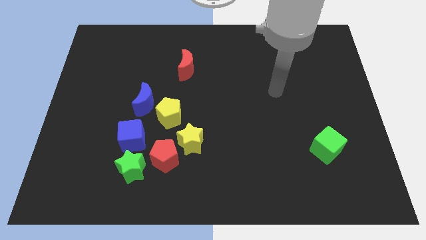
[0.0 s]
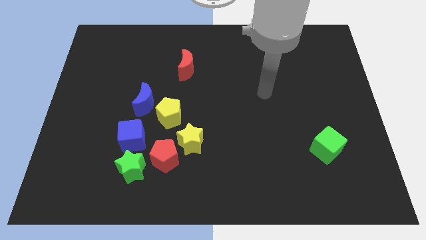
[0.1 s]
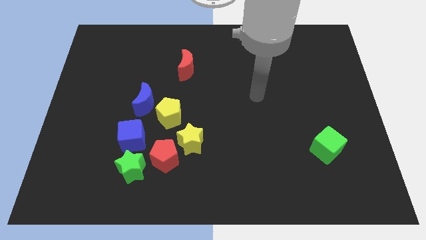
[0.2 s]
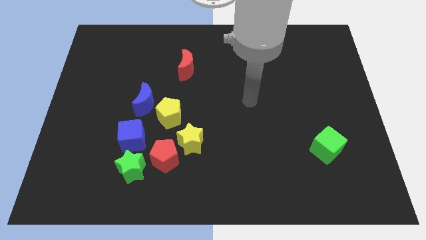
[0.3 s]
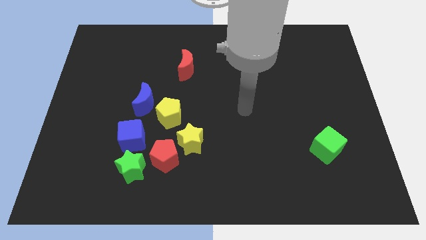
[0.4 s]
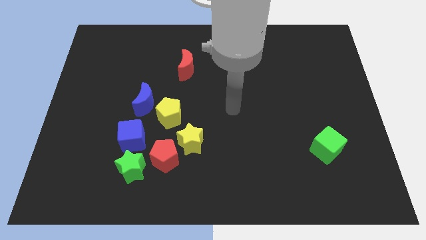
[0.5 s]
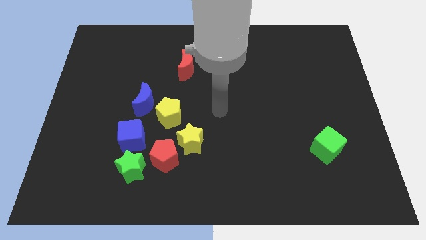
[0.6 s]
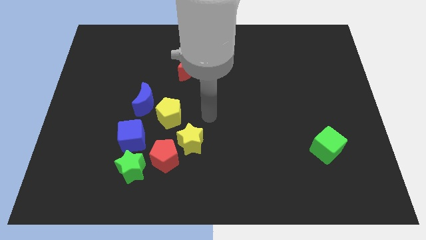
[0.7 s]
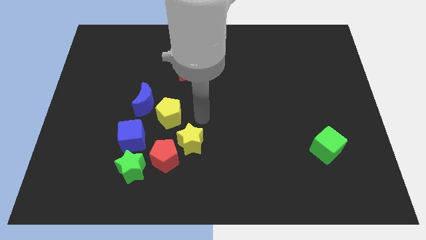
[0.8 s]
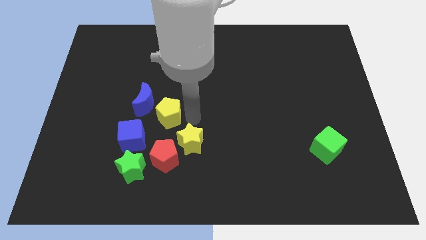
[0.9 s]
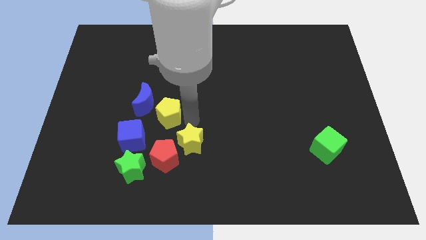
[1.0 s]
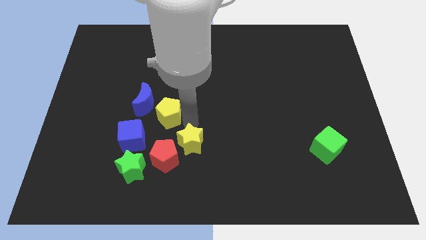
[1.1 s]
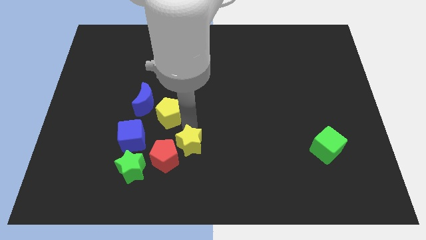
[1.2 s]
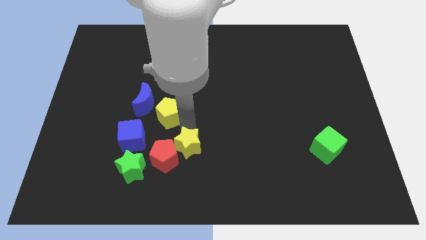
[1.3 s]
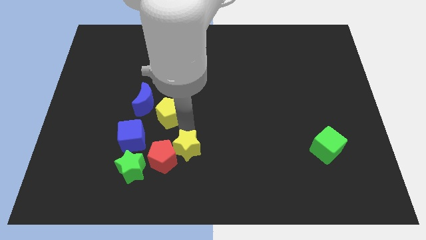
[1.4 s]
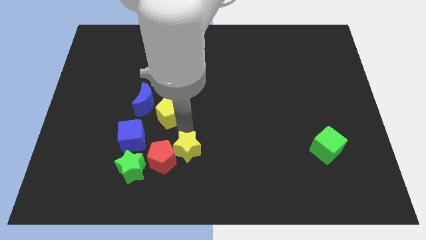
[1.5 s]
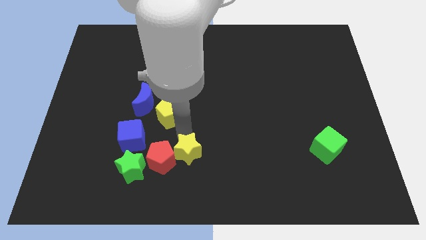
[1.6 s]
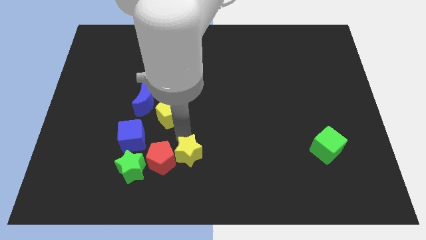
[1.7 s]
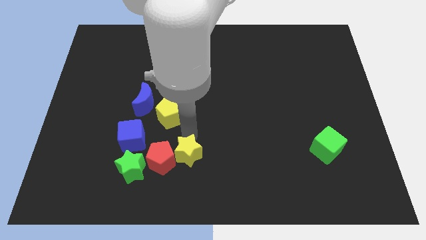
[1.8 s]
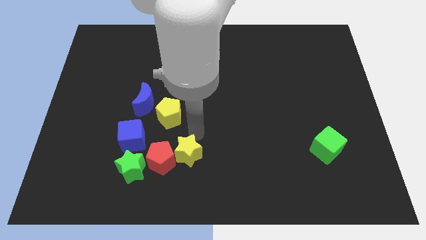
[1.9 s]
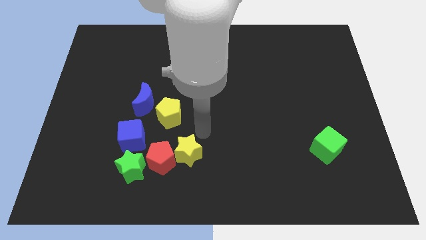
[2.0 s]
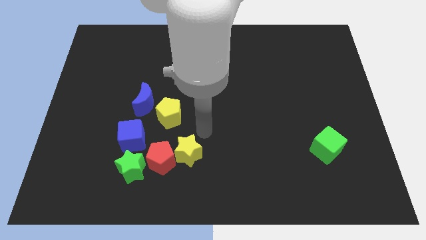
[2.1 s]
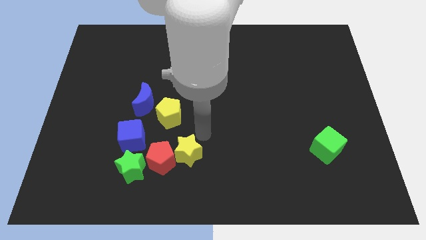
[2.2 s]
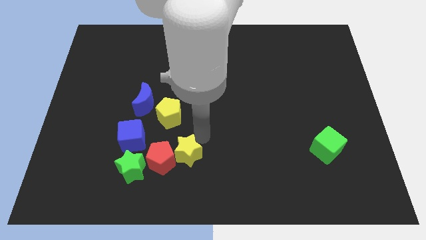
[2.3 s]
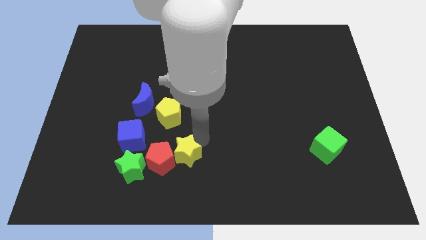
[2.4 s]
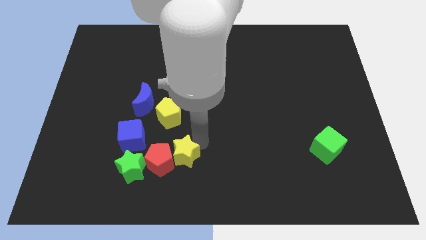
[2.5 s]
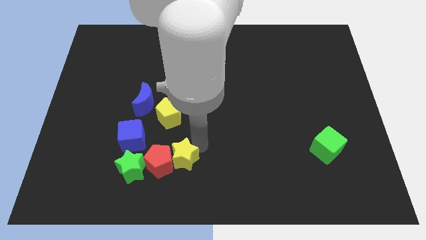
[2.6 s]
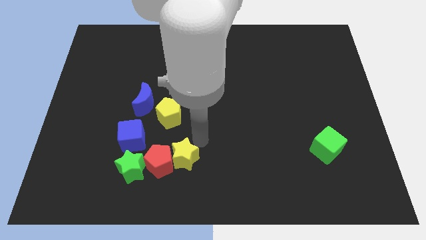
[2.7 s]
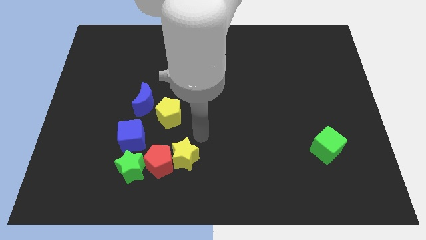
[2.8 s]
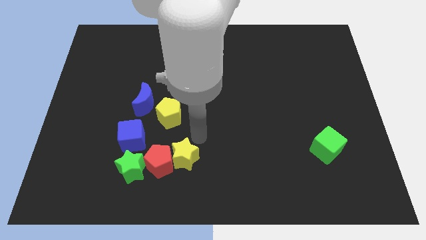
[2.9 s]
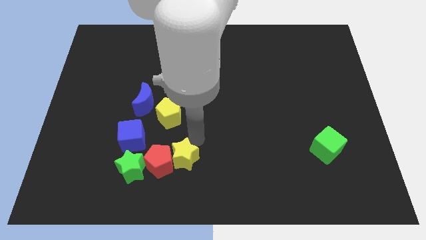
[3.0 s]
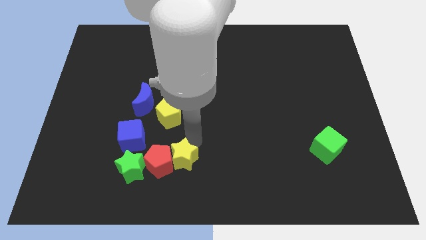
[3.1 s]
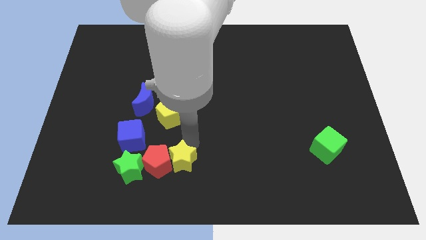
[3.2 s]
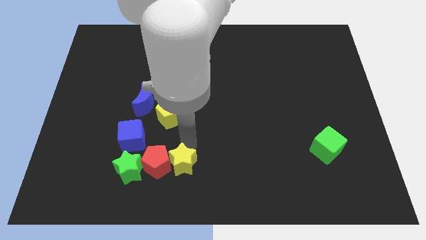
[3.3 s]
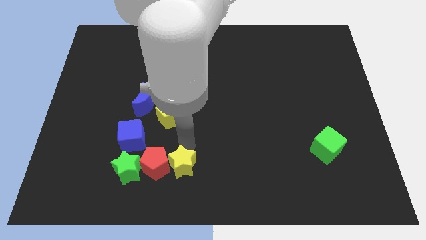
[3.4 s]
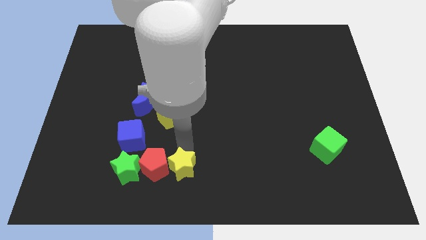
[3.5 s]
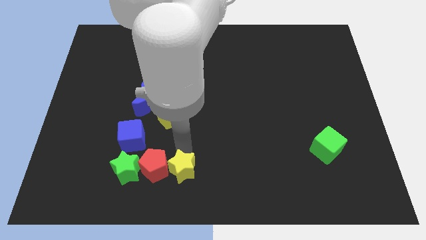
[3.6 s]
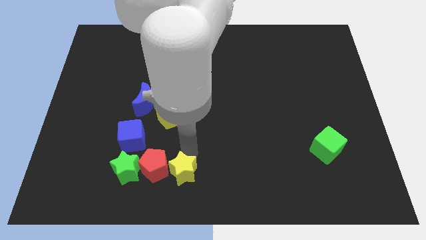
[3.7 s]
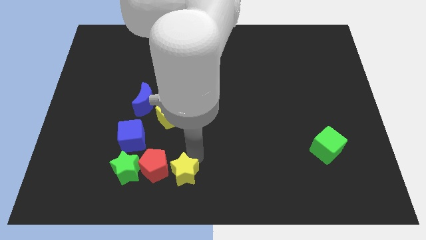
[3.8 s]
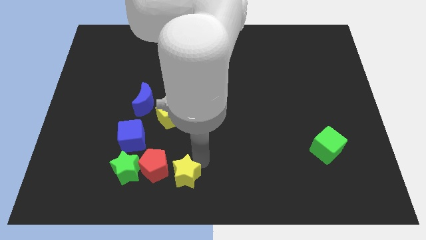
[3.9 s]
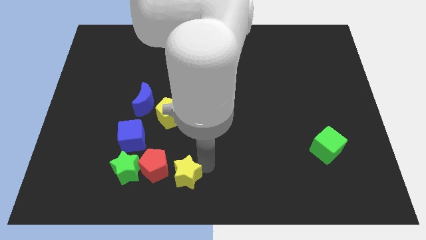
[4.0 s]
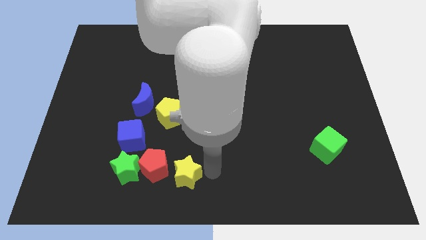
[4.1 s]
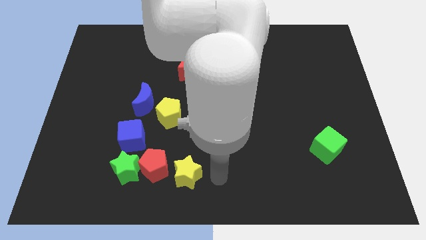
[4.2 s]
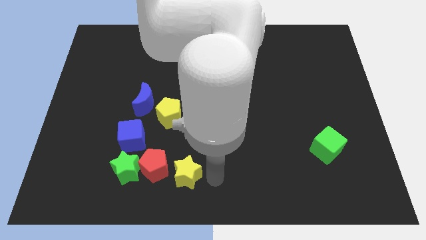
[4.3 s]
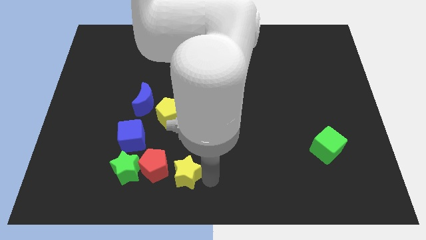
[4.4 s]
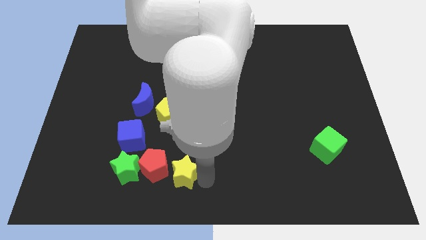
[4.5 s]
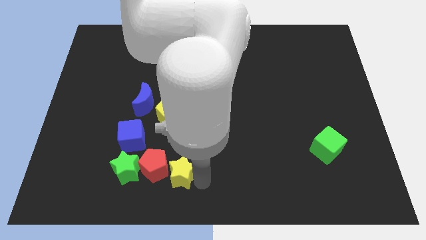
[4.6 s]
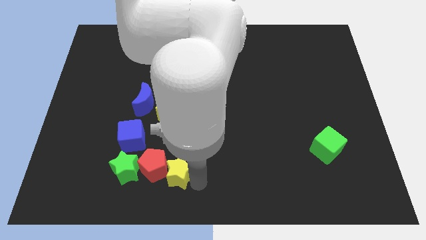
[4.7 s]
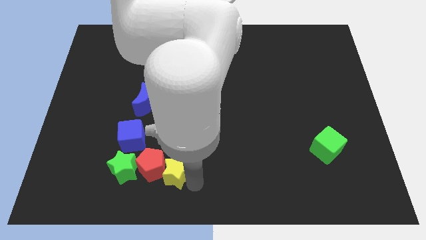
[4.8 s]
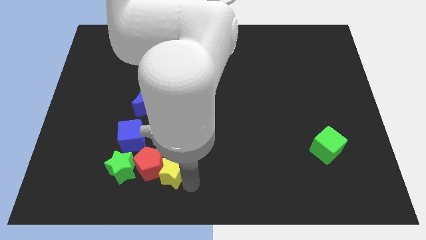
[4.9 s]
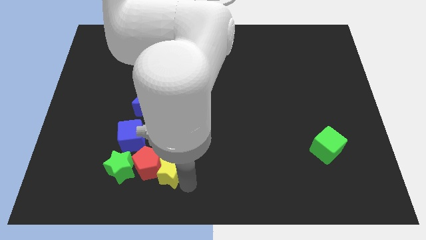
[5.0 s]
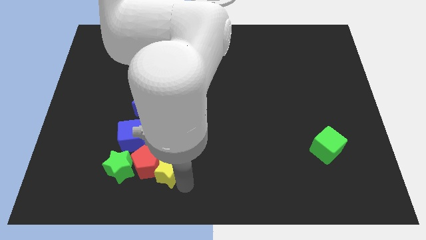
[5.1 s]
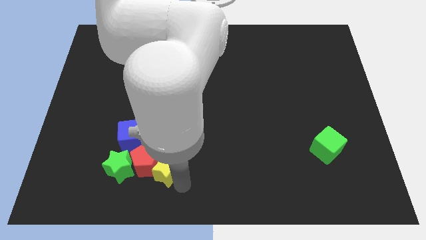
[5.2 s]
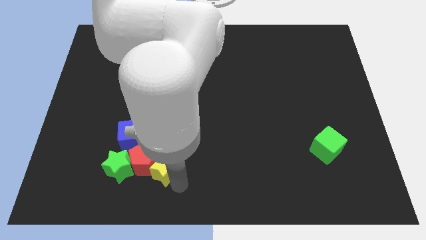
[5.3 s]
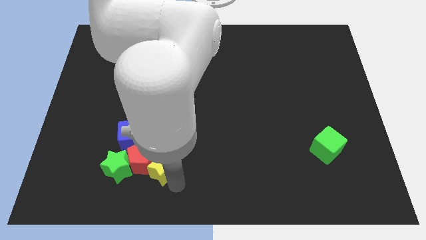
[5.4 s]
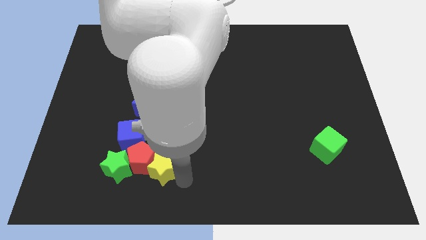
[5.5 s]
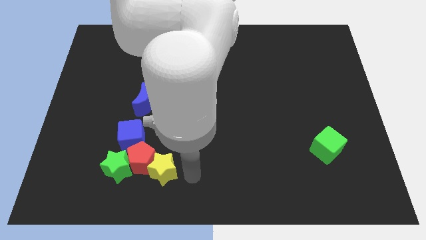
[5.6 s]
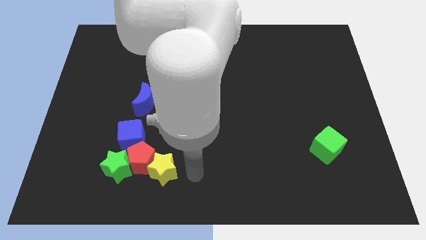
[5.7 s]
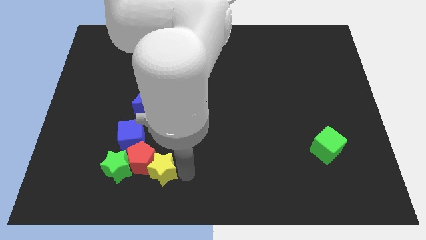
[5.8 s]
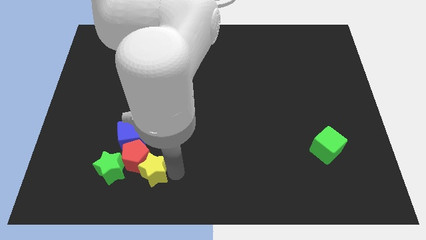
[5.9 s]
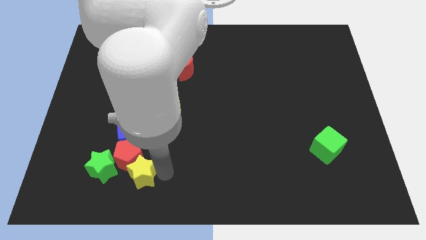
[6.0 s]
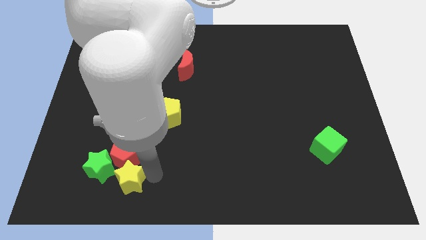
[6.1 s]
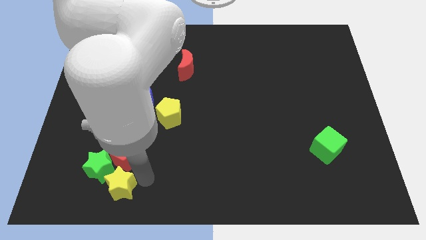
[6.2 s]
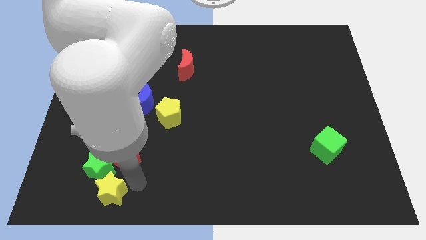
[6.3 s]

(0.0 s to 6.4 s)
put the yellow star close to the green star
